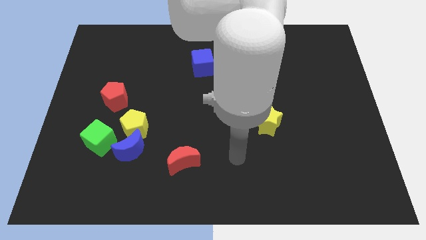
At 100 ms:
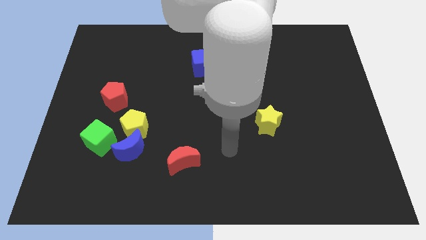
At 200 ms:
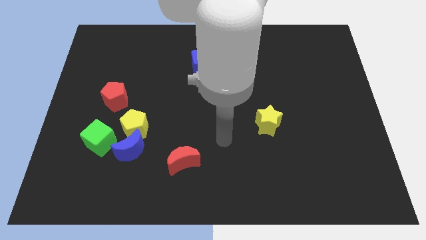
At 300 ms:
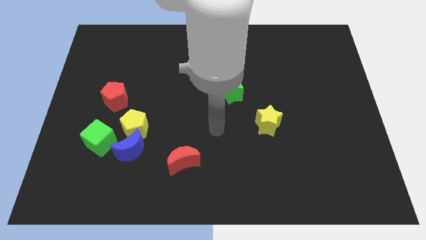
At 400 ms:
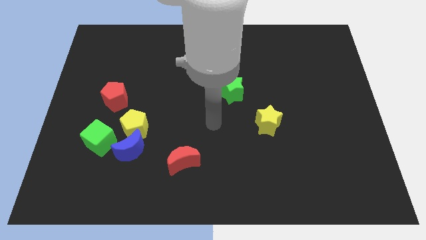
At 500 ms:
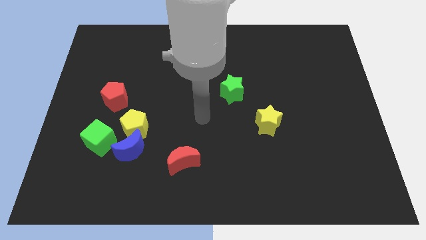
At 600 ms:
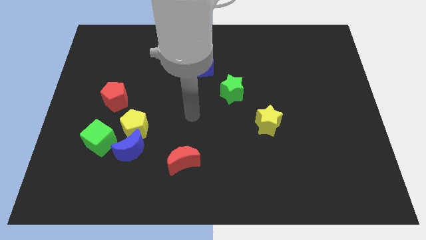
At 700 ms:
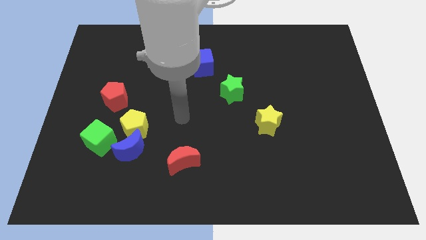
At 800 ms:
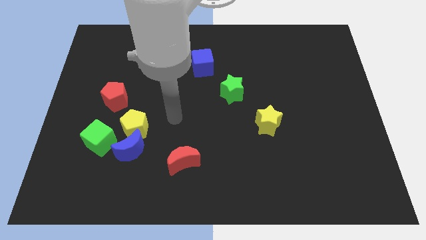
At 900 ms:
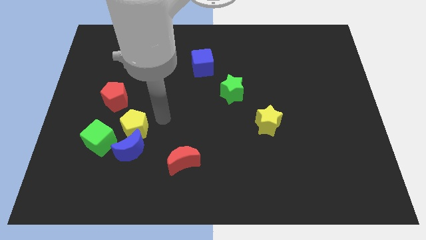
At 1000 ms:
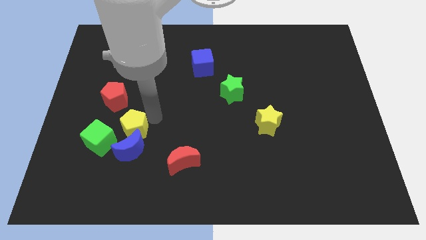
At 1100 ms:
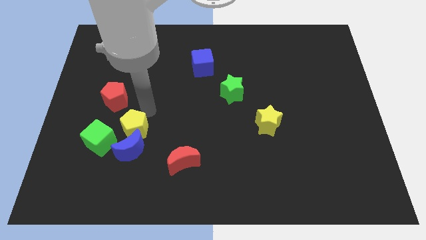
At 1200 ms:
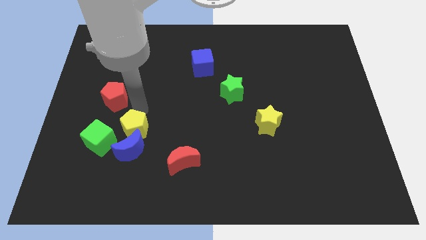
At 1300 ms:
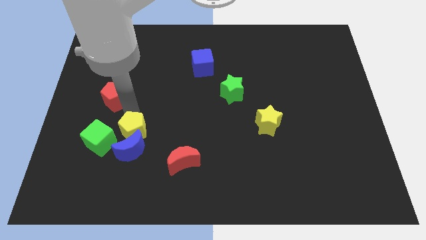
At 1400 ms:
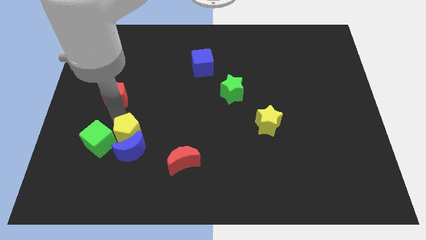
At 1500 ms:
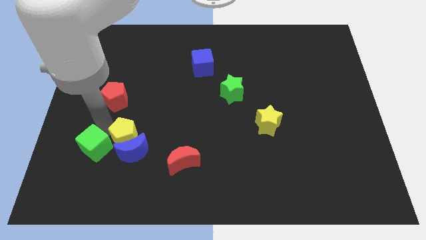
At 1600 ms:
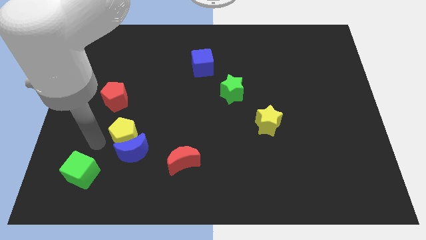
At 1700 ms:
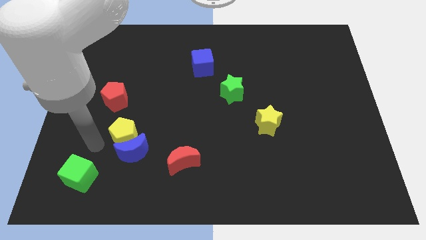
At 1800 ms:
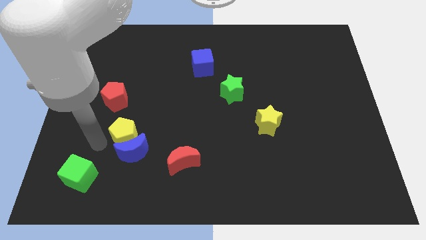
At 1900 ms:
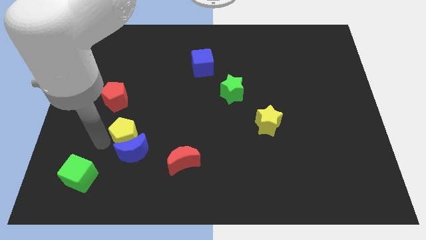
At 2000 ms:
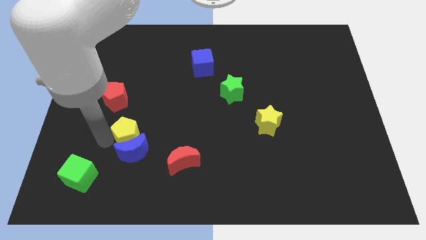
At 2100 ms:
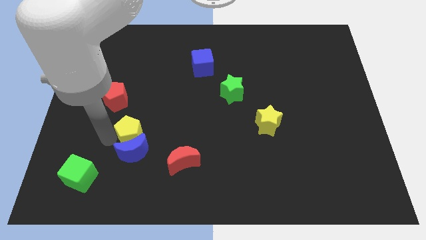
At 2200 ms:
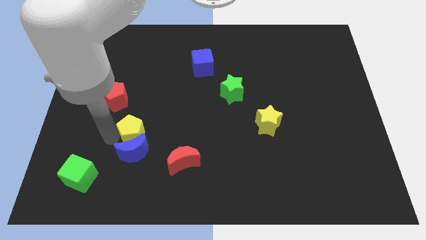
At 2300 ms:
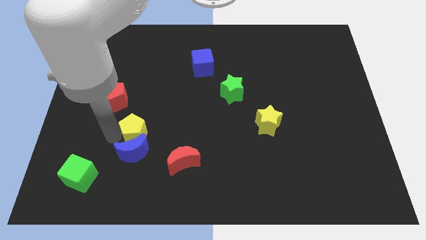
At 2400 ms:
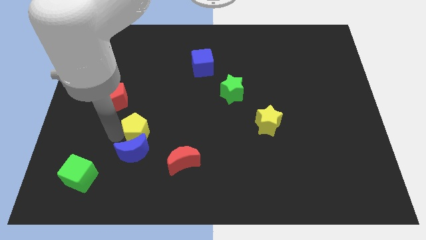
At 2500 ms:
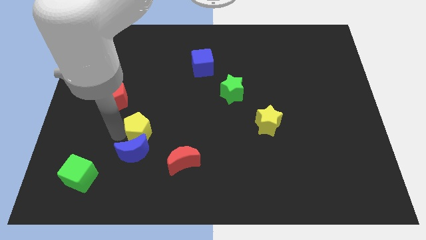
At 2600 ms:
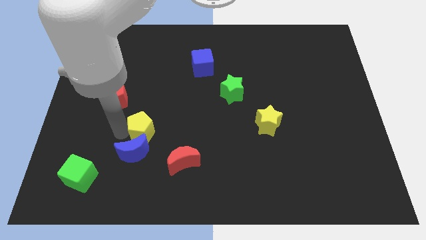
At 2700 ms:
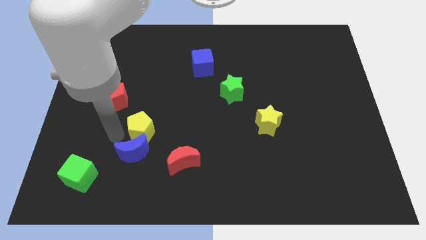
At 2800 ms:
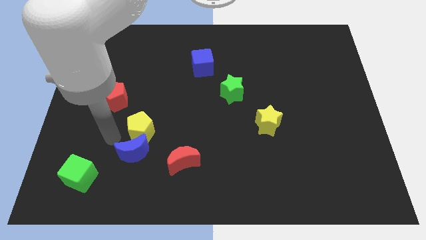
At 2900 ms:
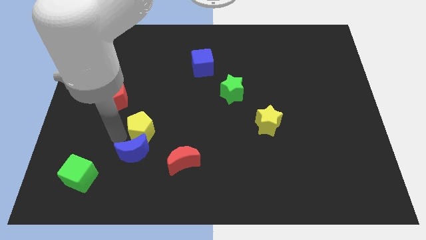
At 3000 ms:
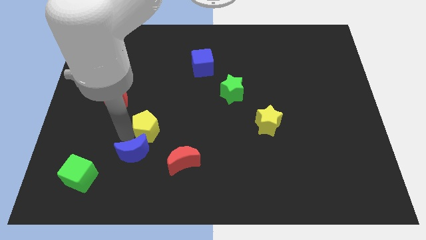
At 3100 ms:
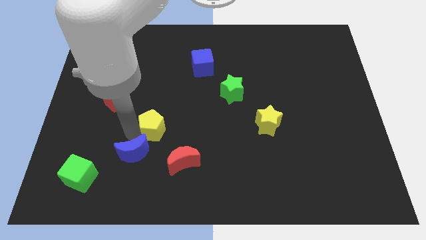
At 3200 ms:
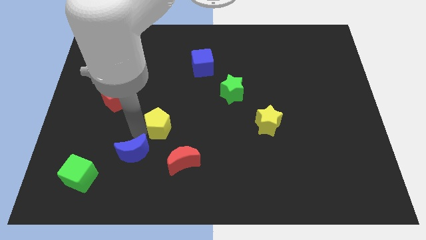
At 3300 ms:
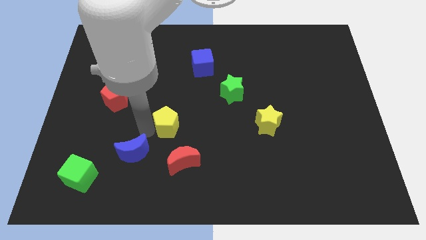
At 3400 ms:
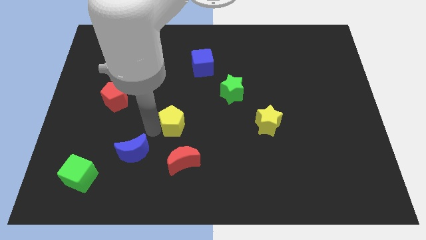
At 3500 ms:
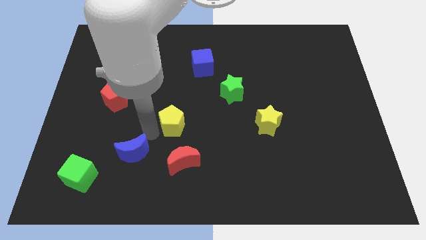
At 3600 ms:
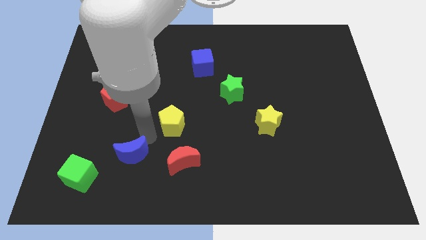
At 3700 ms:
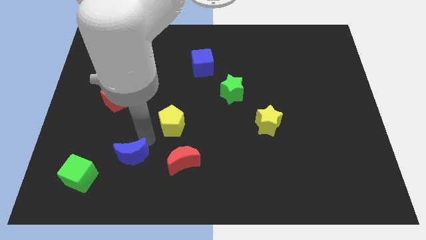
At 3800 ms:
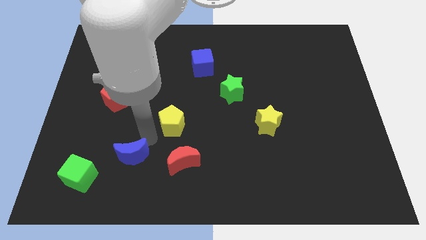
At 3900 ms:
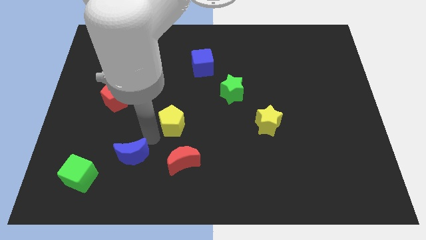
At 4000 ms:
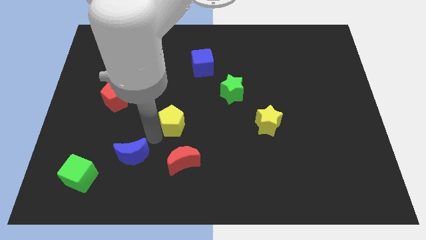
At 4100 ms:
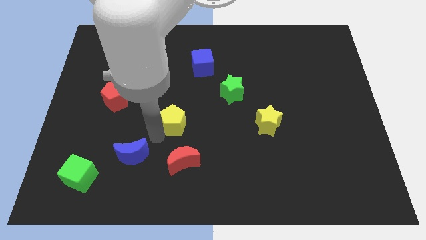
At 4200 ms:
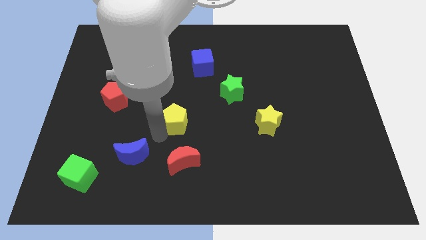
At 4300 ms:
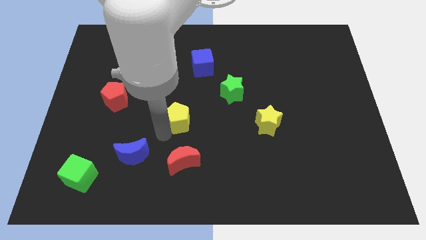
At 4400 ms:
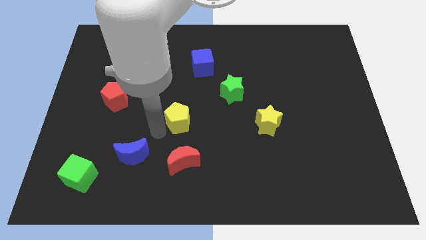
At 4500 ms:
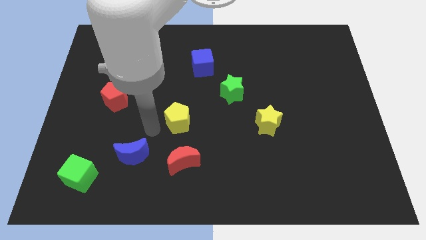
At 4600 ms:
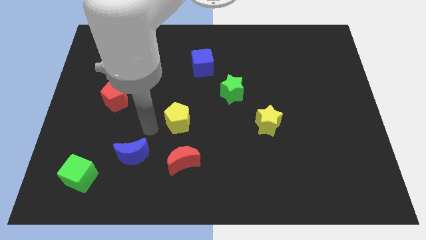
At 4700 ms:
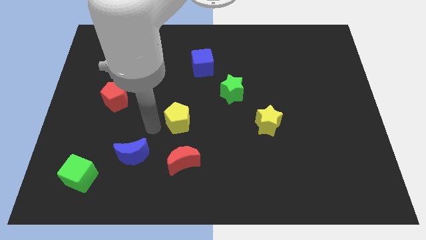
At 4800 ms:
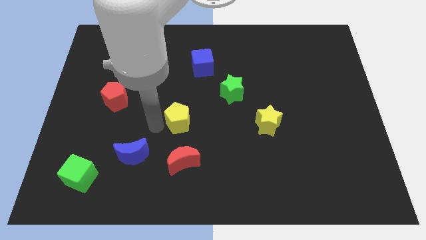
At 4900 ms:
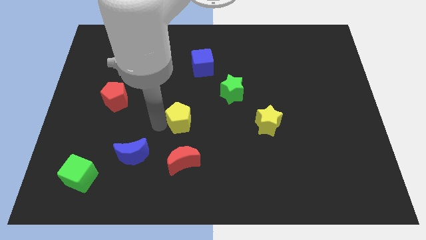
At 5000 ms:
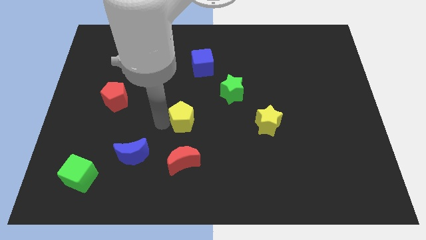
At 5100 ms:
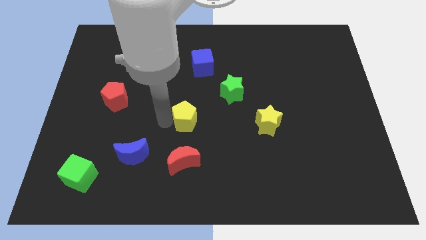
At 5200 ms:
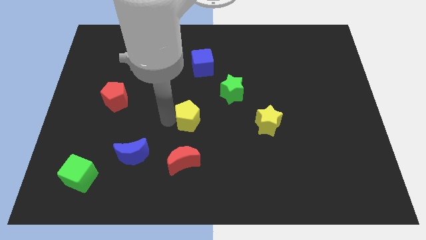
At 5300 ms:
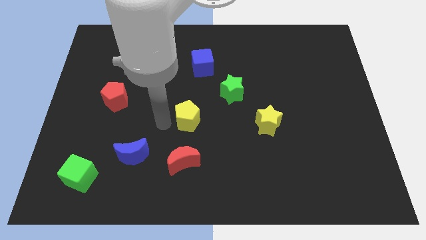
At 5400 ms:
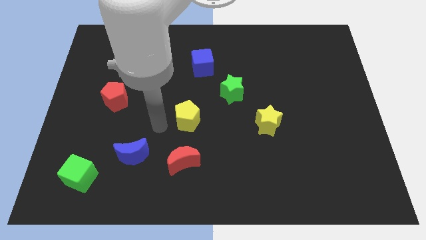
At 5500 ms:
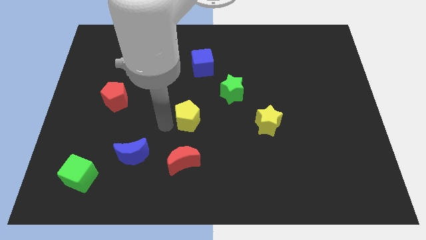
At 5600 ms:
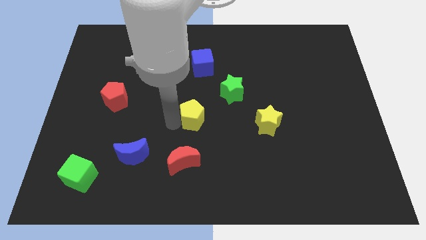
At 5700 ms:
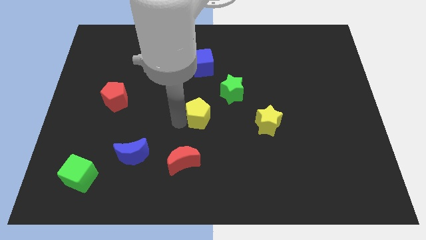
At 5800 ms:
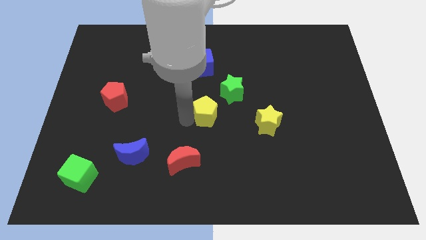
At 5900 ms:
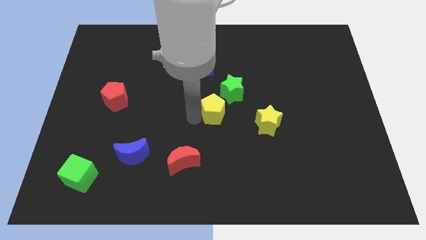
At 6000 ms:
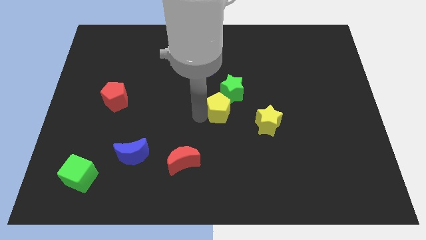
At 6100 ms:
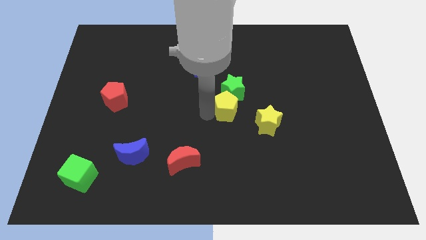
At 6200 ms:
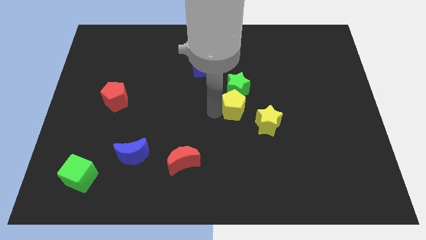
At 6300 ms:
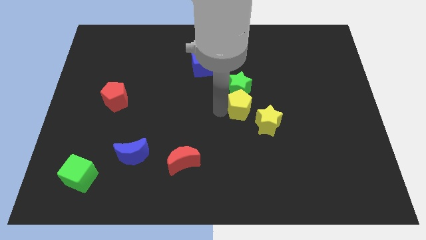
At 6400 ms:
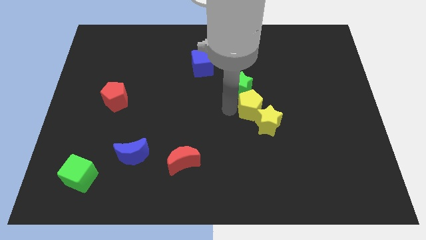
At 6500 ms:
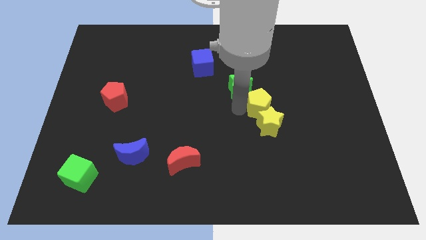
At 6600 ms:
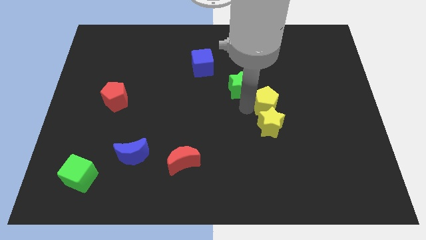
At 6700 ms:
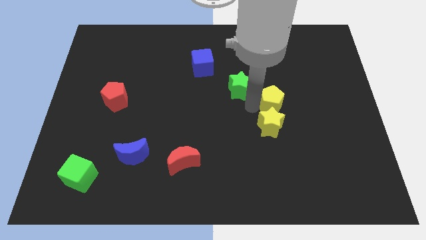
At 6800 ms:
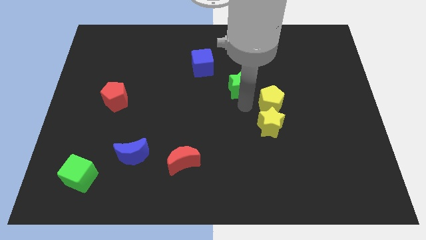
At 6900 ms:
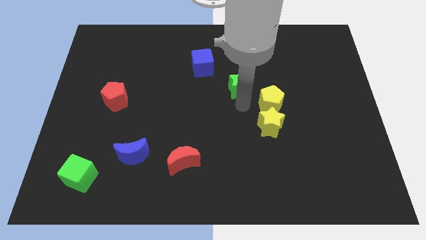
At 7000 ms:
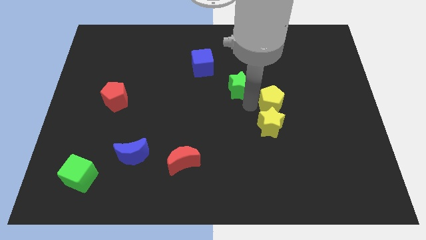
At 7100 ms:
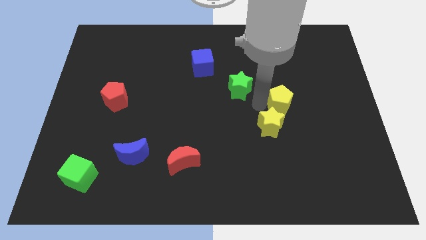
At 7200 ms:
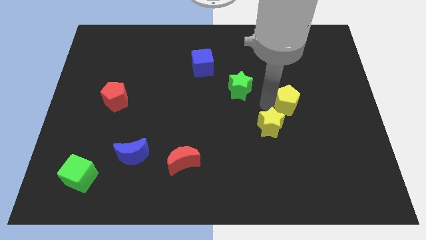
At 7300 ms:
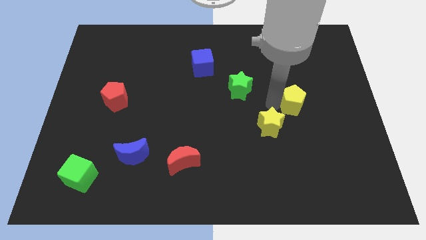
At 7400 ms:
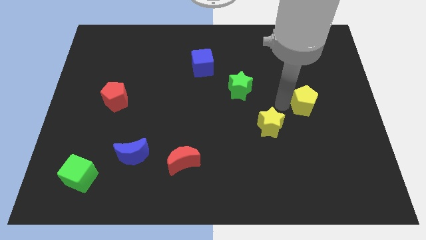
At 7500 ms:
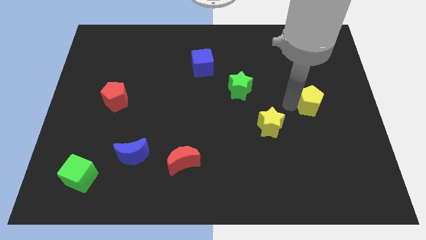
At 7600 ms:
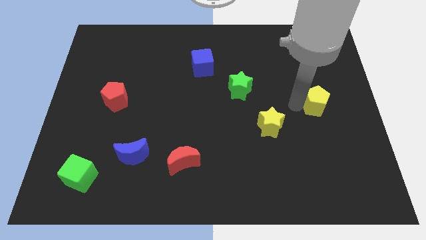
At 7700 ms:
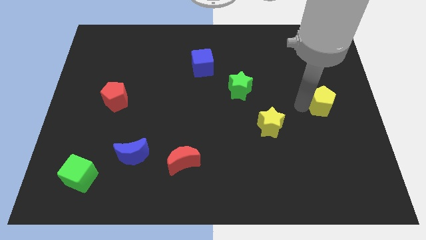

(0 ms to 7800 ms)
push the yellow pentagon to the right side

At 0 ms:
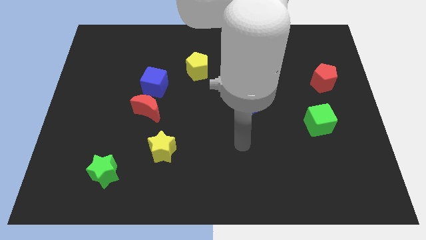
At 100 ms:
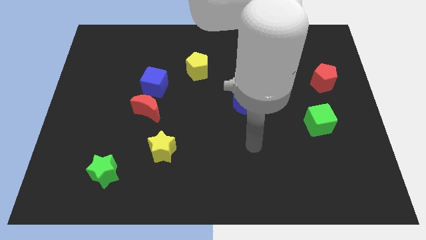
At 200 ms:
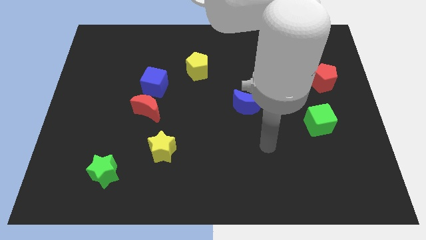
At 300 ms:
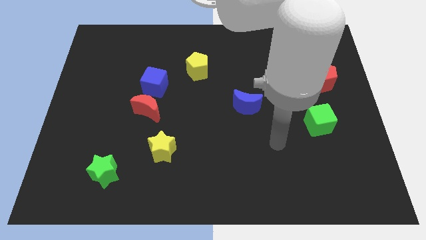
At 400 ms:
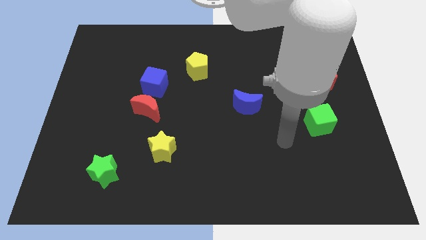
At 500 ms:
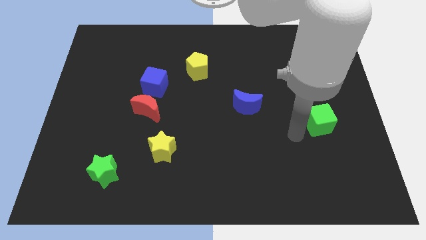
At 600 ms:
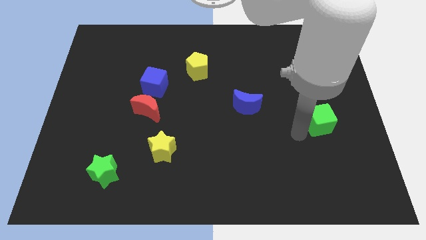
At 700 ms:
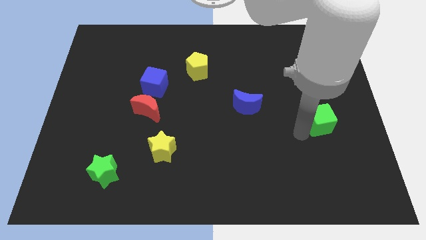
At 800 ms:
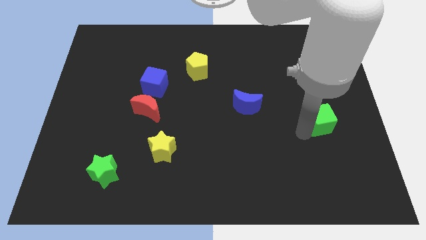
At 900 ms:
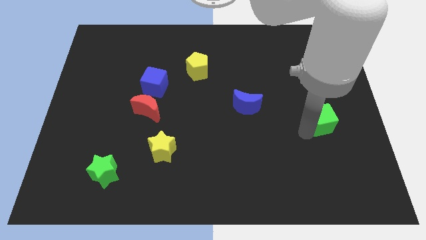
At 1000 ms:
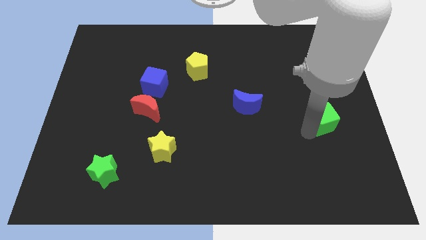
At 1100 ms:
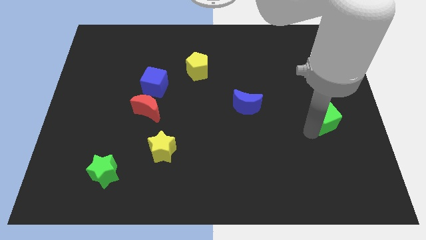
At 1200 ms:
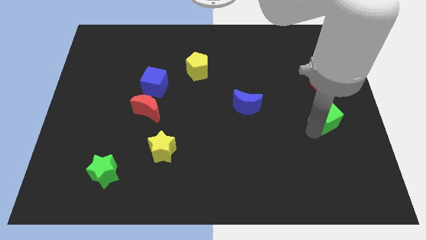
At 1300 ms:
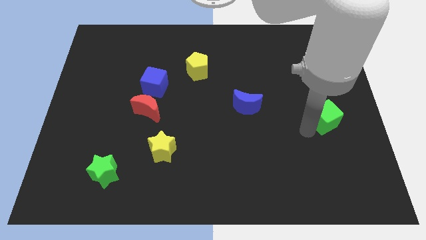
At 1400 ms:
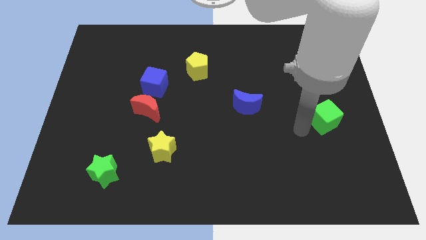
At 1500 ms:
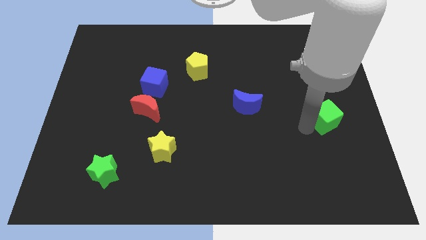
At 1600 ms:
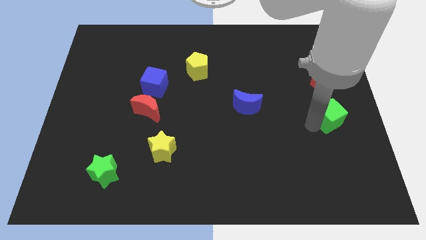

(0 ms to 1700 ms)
put the green cube to the right side
